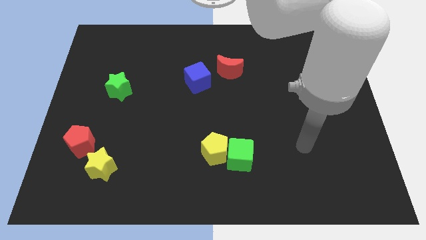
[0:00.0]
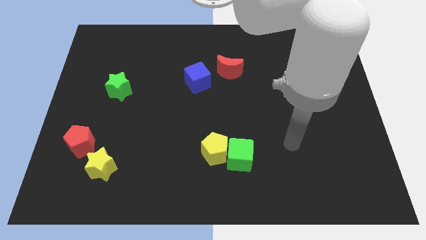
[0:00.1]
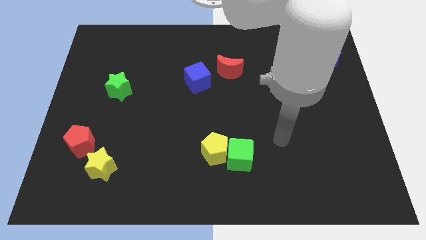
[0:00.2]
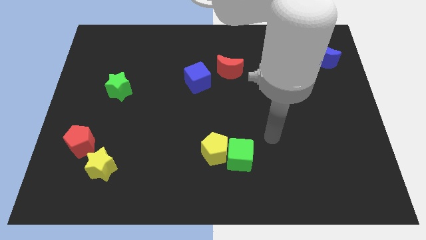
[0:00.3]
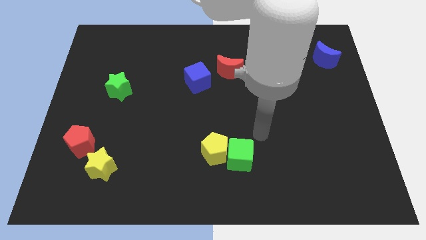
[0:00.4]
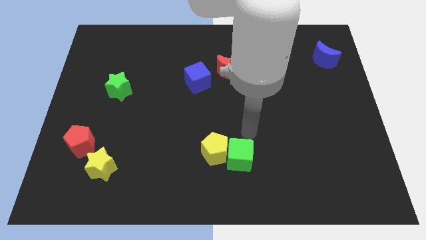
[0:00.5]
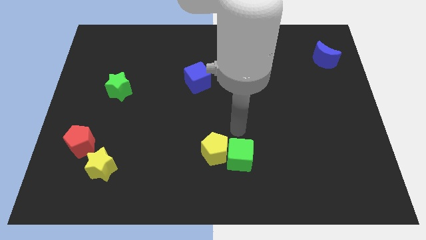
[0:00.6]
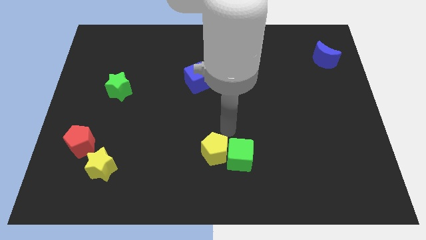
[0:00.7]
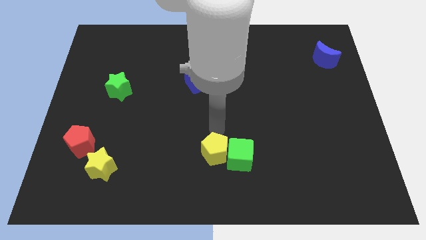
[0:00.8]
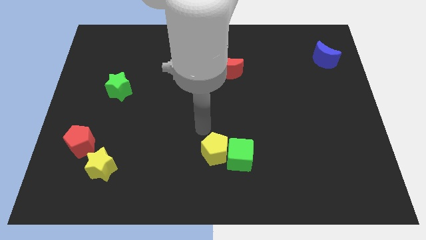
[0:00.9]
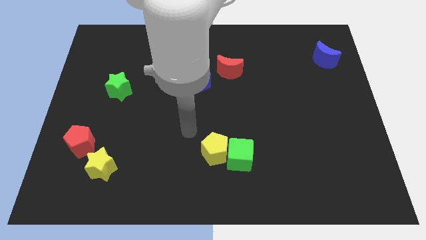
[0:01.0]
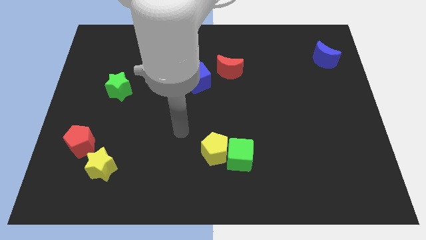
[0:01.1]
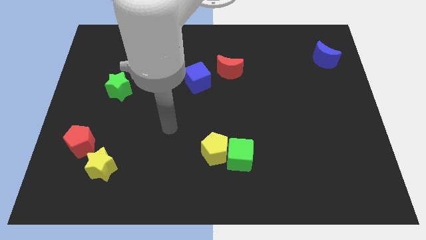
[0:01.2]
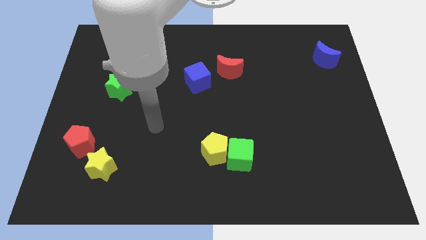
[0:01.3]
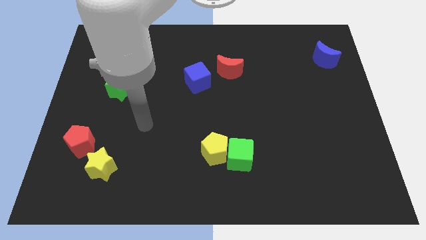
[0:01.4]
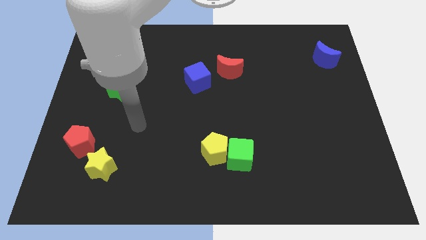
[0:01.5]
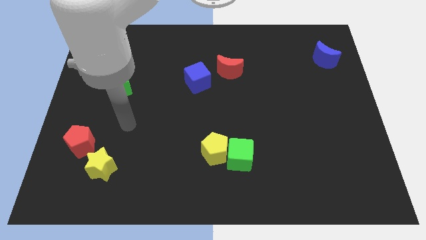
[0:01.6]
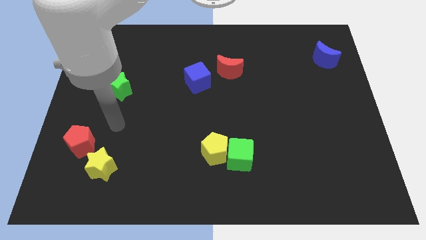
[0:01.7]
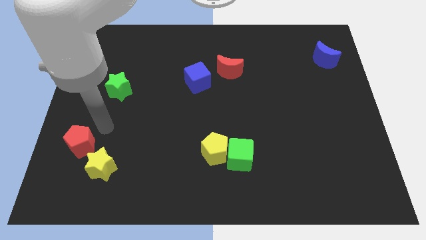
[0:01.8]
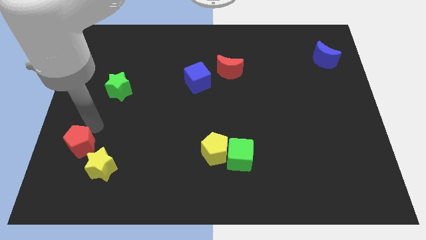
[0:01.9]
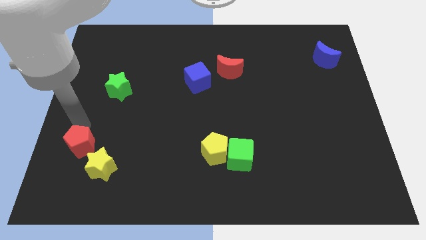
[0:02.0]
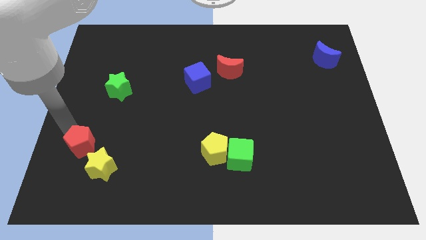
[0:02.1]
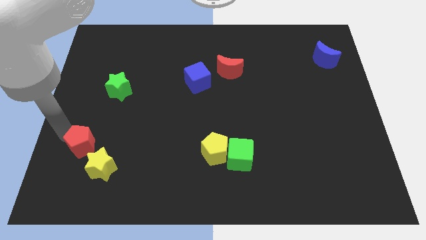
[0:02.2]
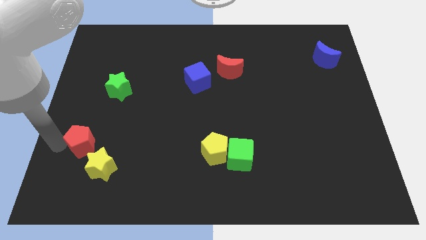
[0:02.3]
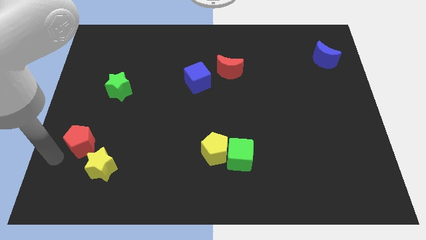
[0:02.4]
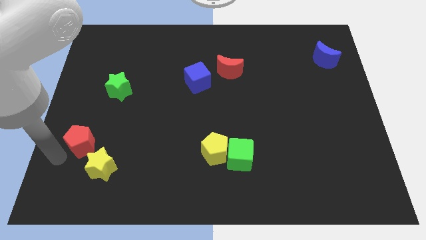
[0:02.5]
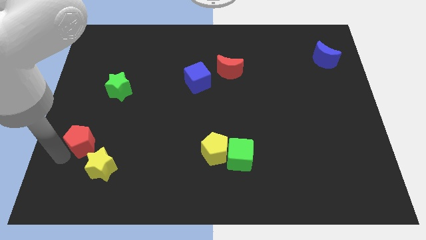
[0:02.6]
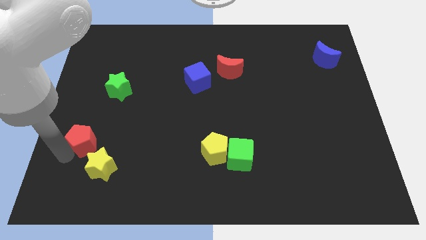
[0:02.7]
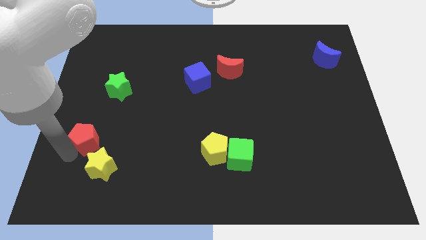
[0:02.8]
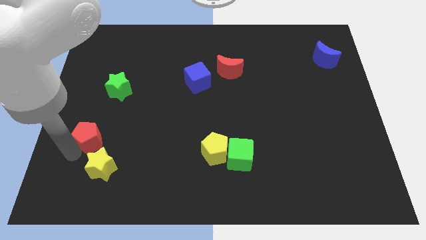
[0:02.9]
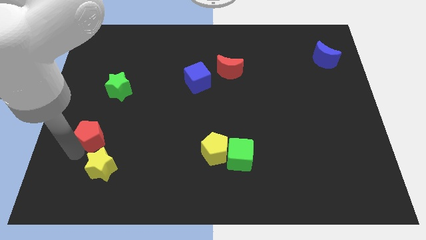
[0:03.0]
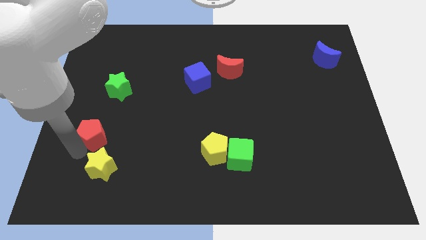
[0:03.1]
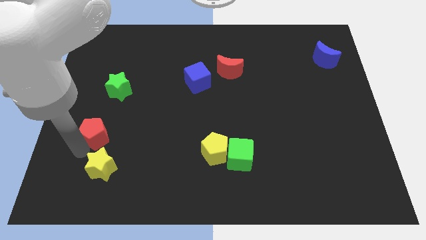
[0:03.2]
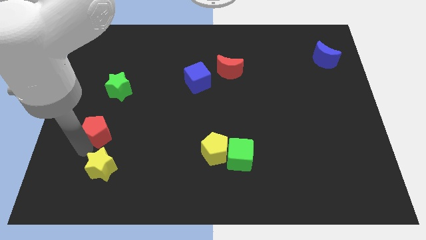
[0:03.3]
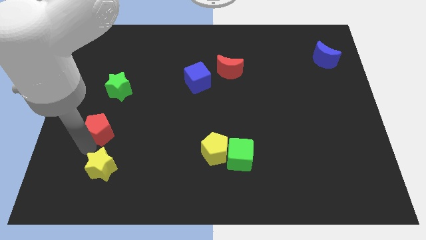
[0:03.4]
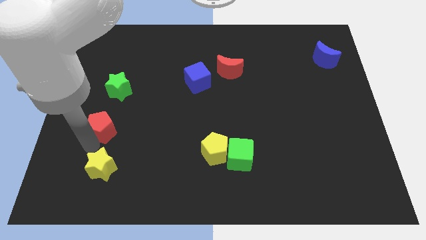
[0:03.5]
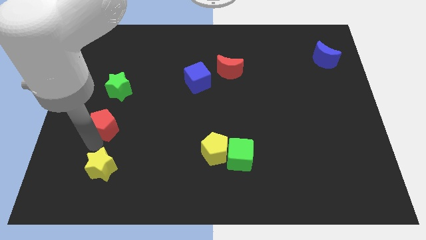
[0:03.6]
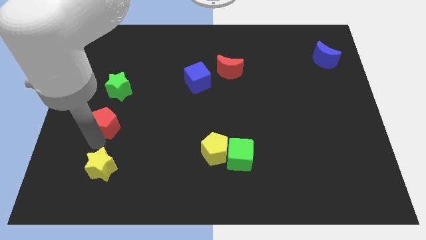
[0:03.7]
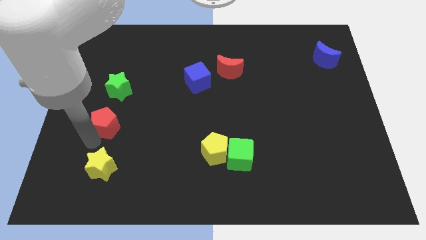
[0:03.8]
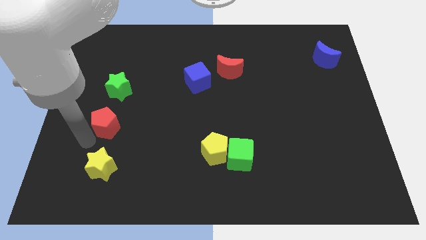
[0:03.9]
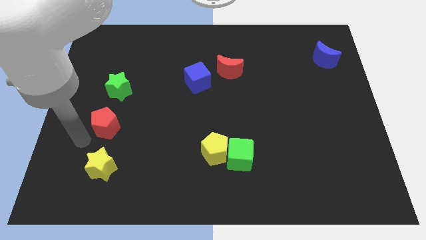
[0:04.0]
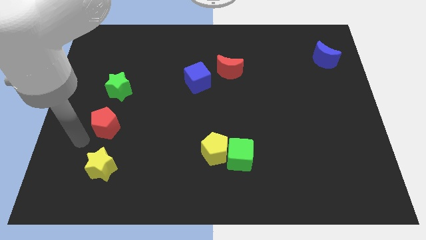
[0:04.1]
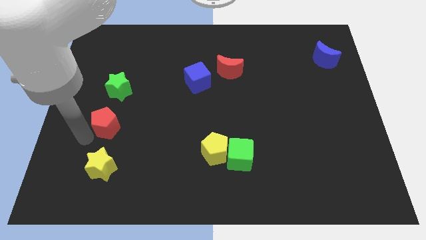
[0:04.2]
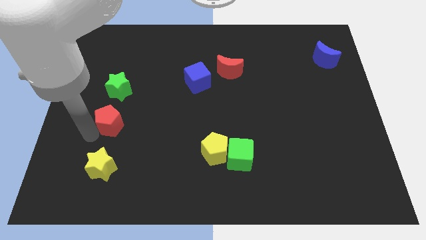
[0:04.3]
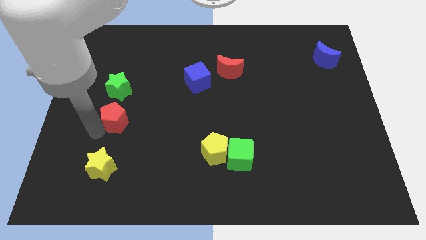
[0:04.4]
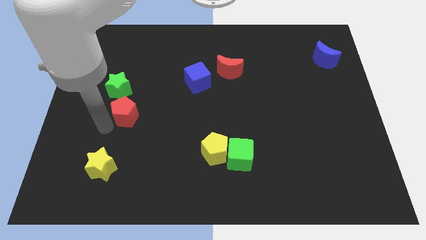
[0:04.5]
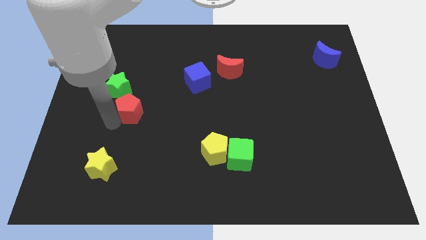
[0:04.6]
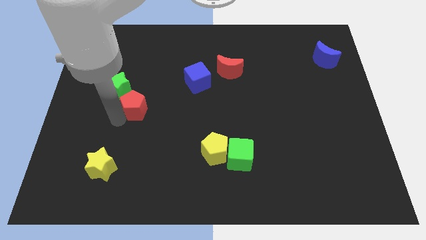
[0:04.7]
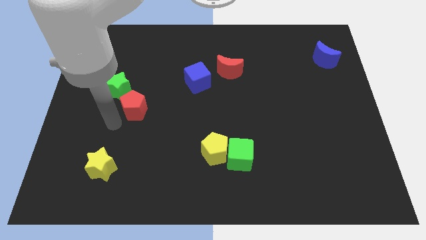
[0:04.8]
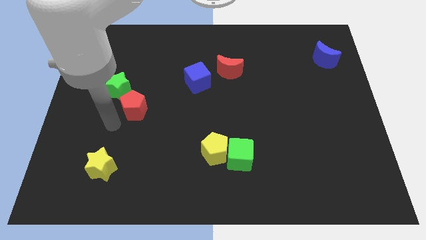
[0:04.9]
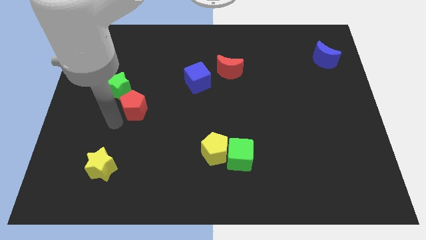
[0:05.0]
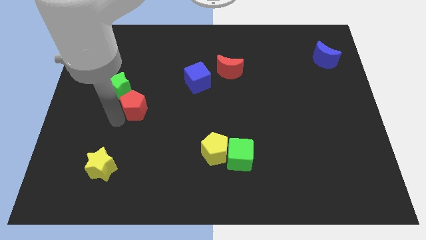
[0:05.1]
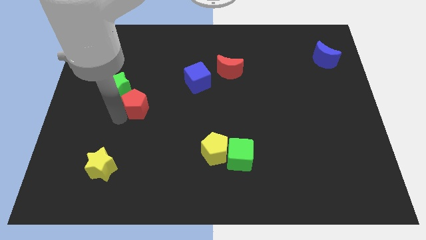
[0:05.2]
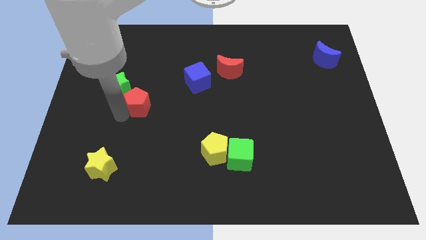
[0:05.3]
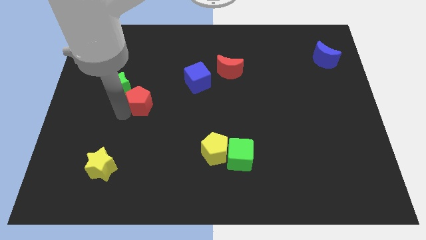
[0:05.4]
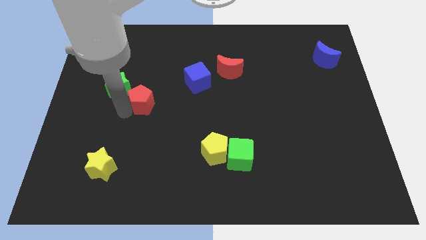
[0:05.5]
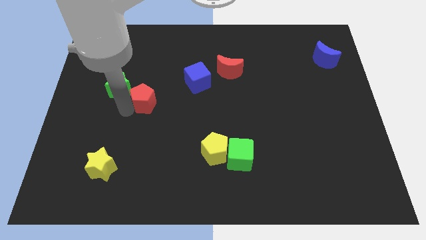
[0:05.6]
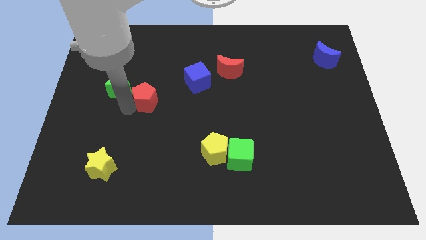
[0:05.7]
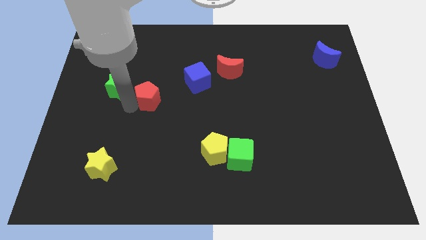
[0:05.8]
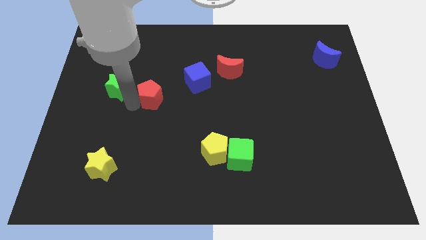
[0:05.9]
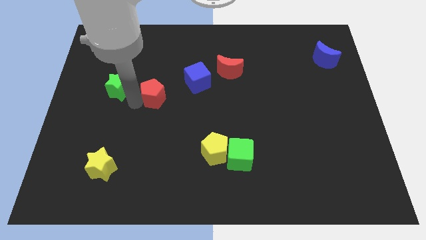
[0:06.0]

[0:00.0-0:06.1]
slide the red pentagon diagonally upwards and to the right

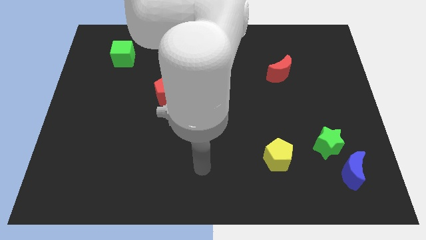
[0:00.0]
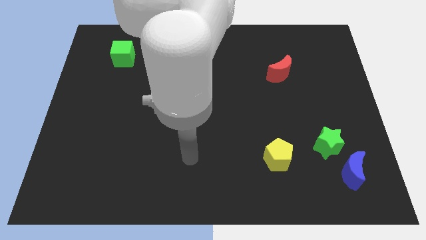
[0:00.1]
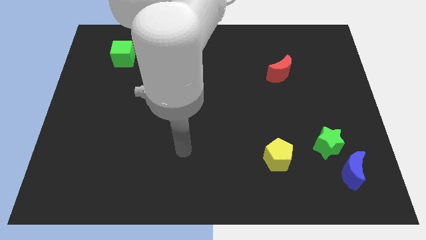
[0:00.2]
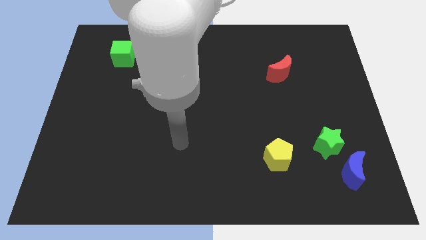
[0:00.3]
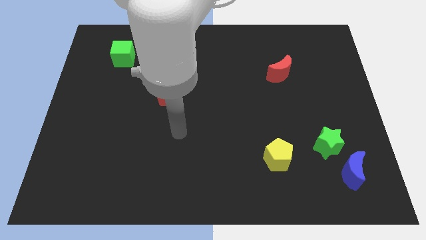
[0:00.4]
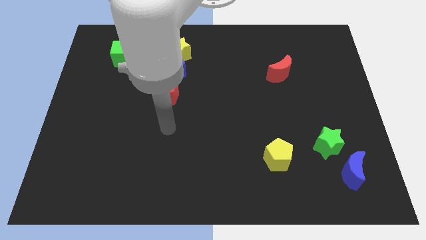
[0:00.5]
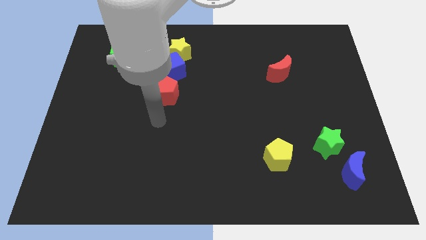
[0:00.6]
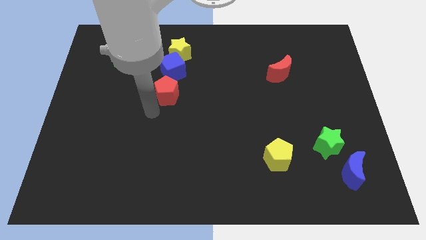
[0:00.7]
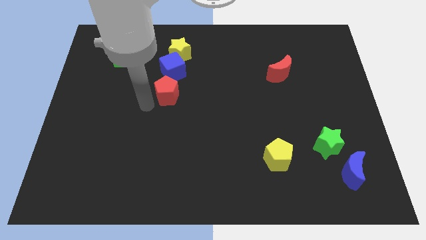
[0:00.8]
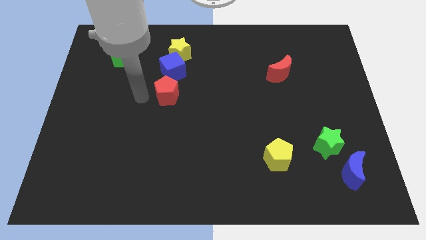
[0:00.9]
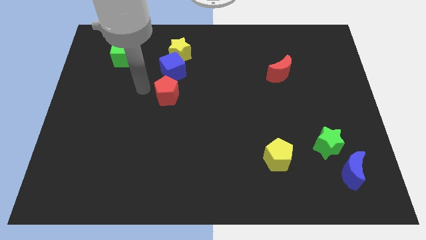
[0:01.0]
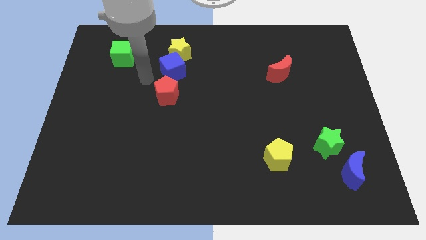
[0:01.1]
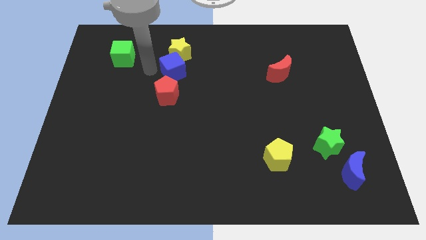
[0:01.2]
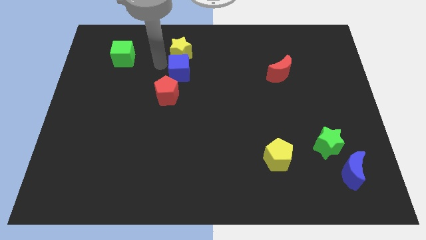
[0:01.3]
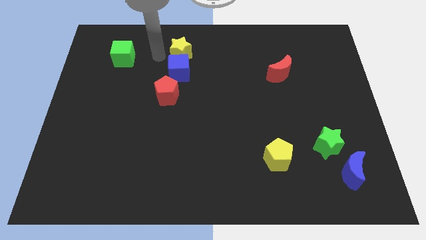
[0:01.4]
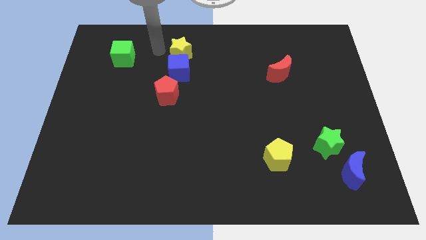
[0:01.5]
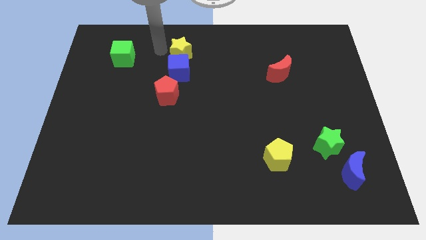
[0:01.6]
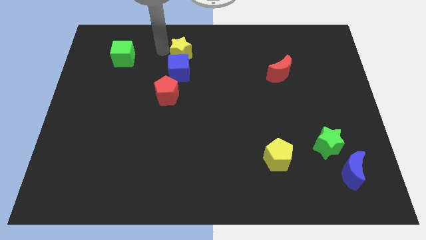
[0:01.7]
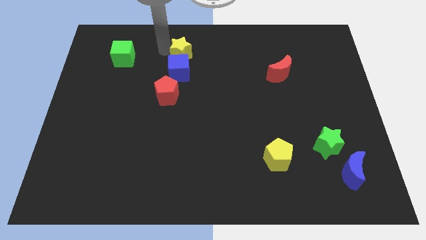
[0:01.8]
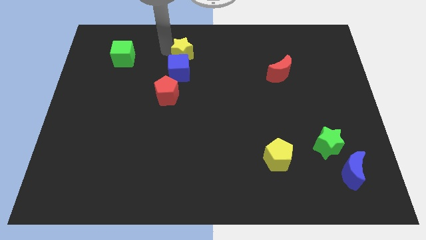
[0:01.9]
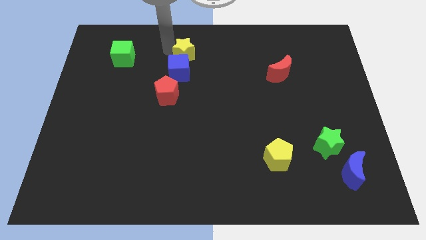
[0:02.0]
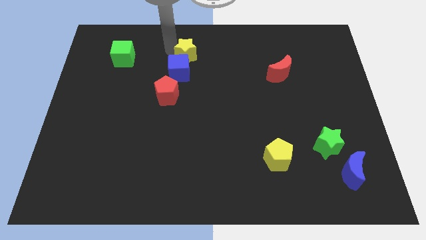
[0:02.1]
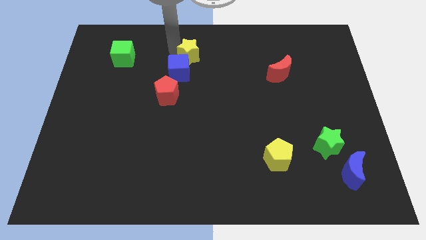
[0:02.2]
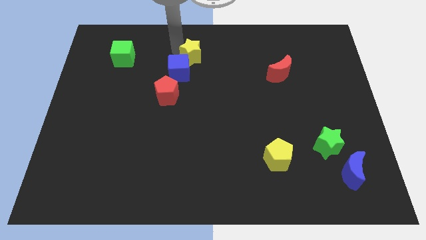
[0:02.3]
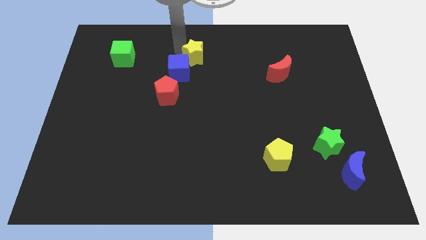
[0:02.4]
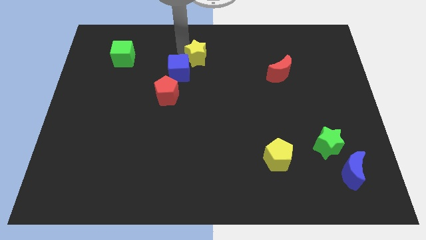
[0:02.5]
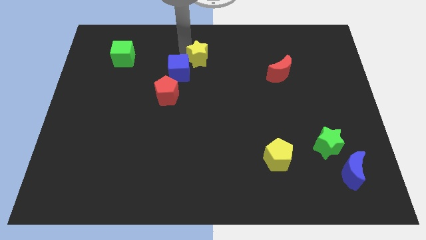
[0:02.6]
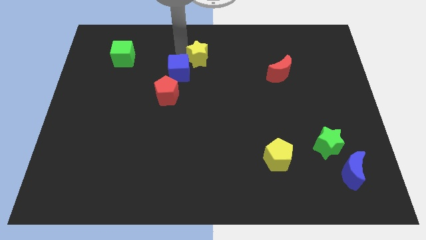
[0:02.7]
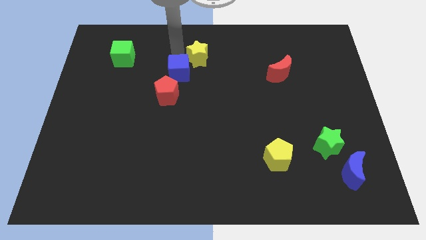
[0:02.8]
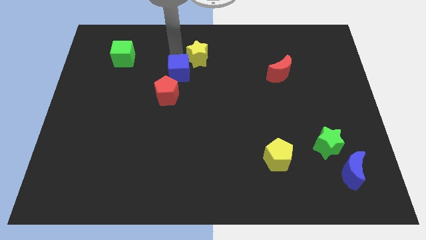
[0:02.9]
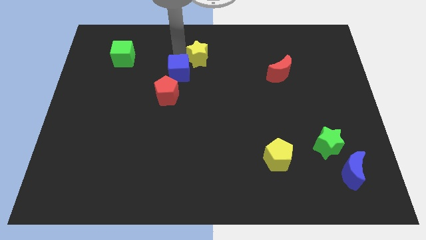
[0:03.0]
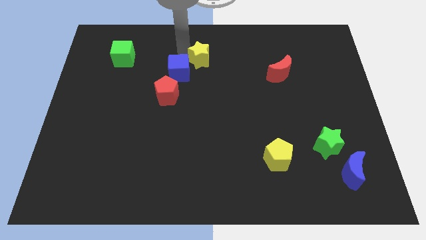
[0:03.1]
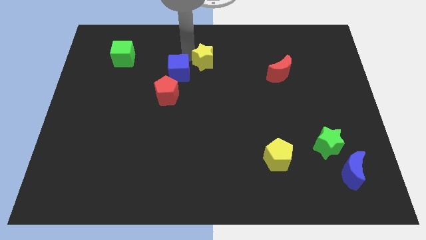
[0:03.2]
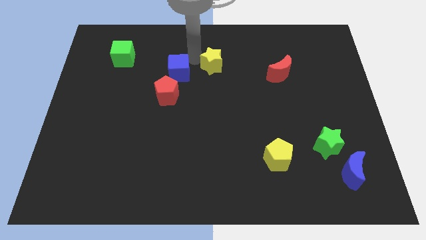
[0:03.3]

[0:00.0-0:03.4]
push the yellow star right a bit
